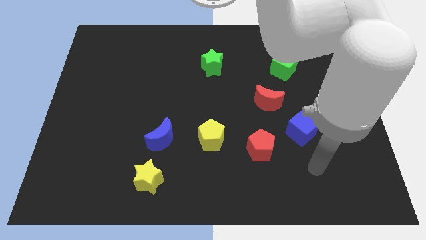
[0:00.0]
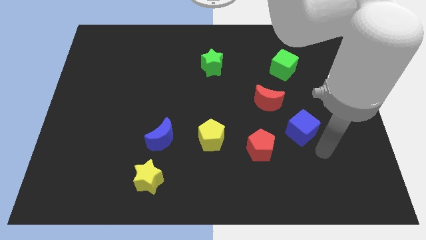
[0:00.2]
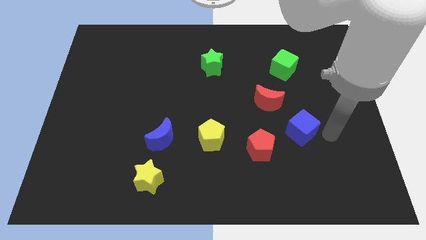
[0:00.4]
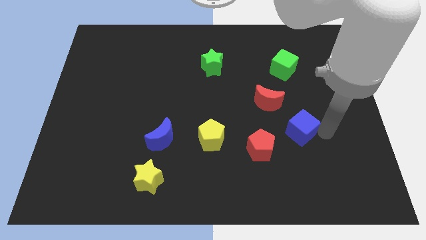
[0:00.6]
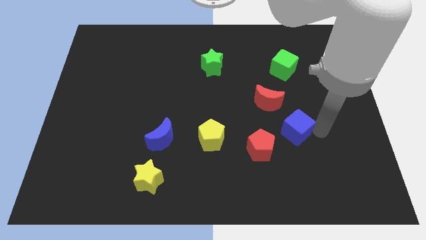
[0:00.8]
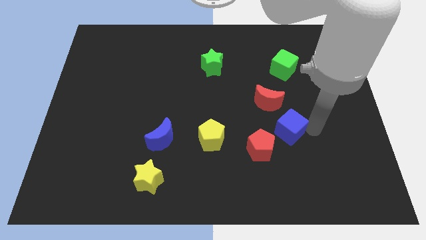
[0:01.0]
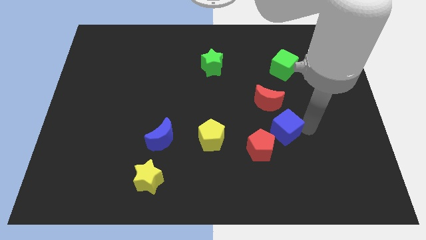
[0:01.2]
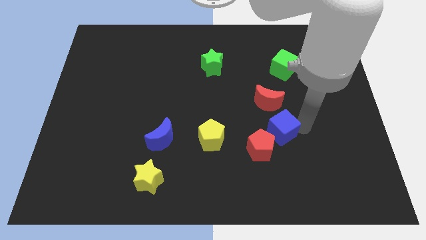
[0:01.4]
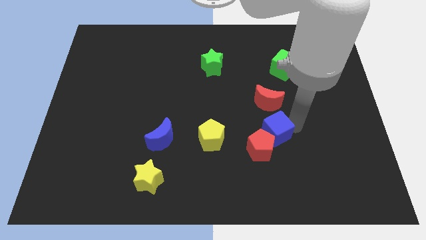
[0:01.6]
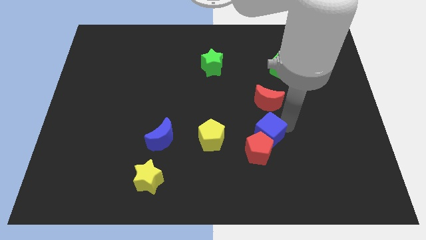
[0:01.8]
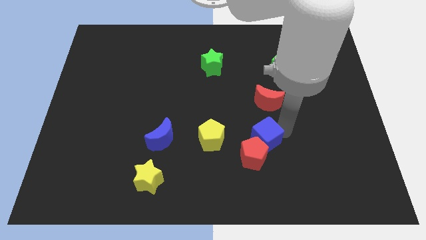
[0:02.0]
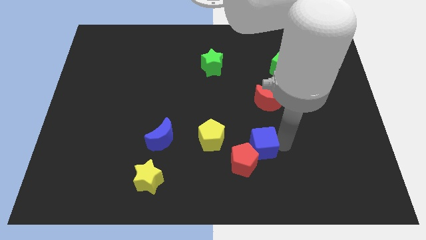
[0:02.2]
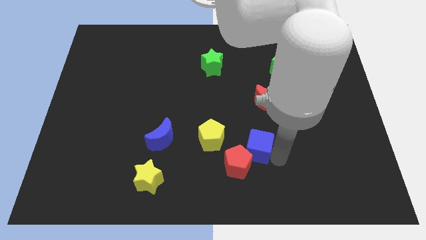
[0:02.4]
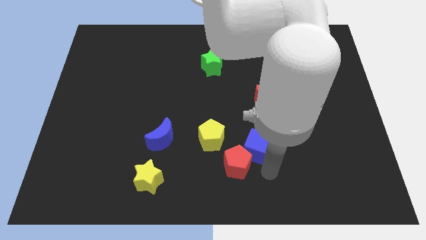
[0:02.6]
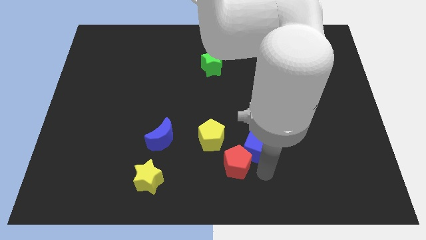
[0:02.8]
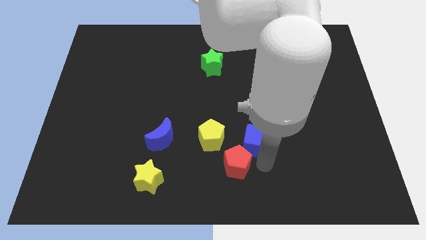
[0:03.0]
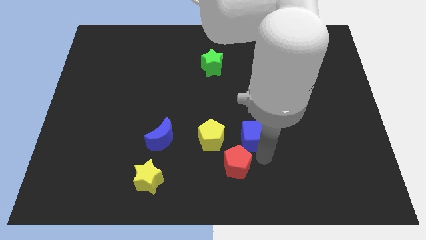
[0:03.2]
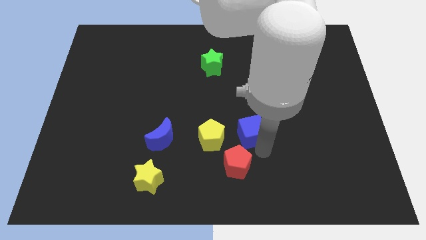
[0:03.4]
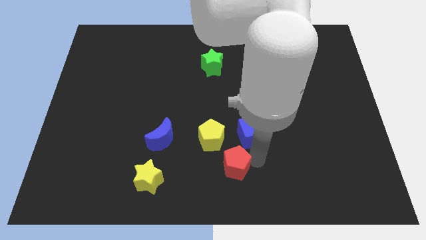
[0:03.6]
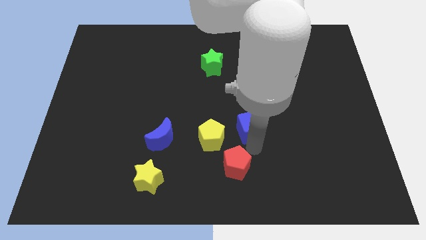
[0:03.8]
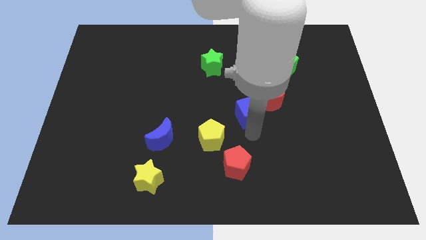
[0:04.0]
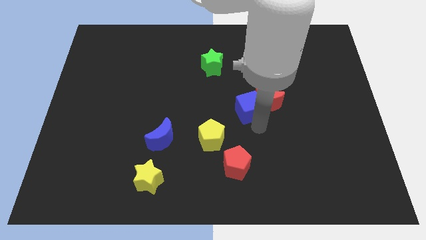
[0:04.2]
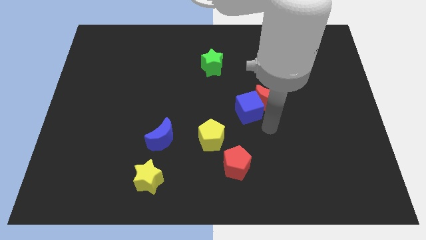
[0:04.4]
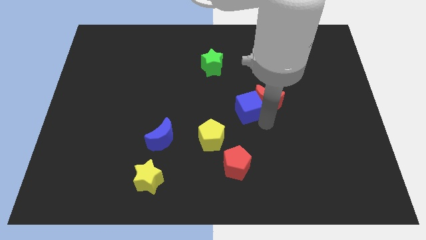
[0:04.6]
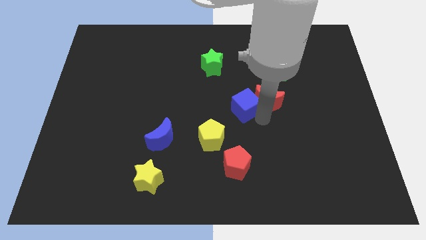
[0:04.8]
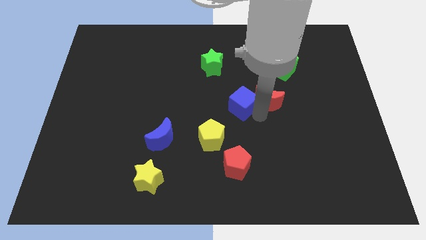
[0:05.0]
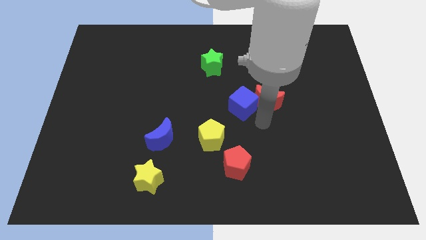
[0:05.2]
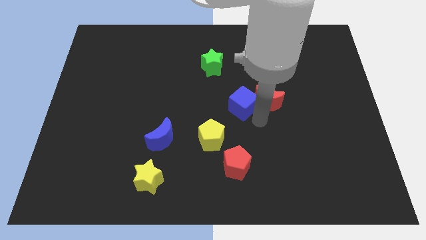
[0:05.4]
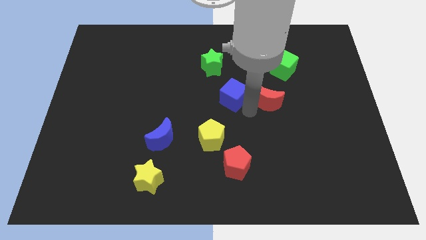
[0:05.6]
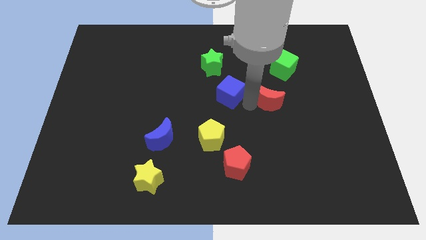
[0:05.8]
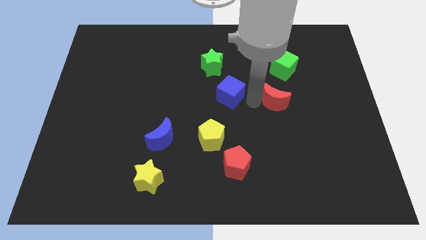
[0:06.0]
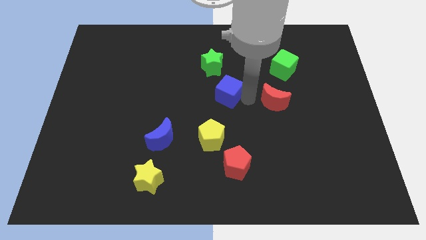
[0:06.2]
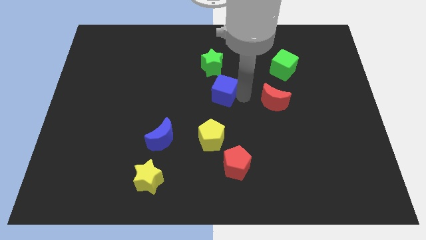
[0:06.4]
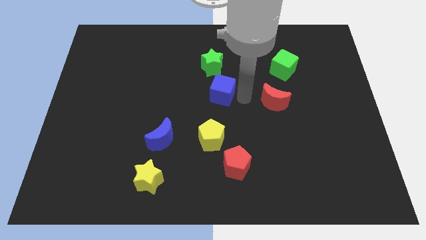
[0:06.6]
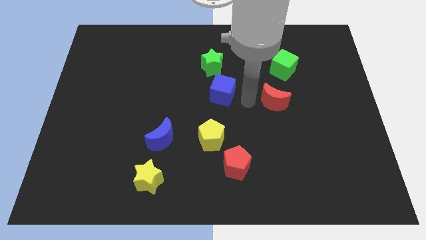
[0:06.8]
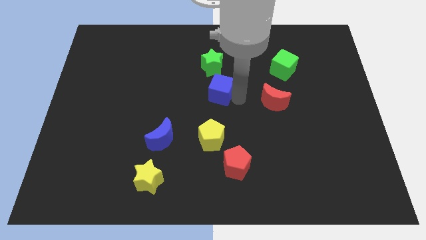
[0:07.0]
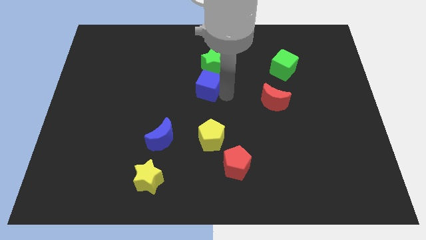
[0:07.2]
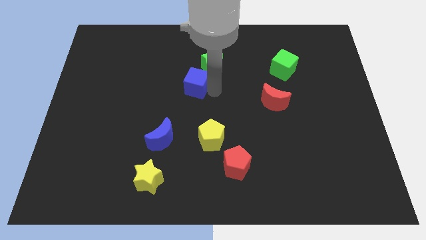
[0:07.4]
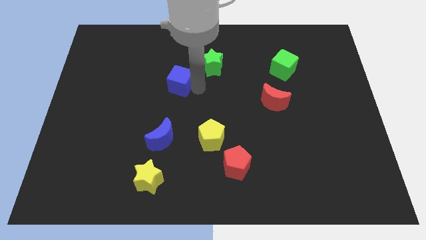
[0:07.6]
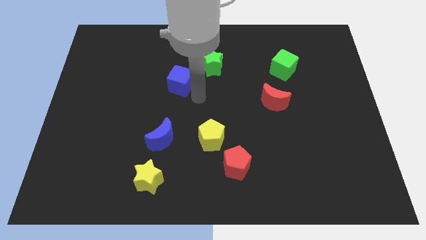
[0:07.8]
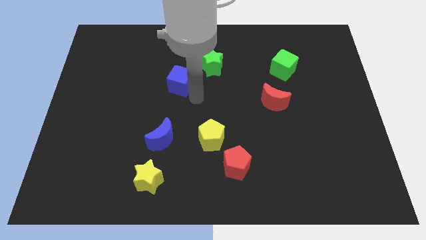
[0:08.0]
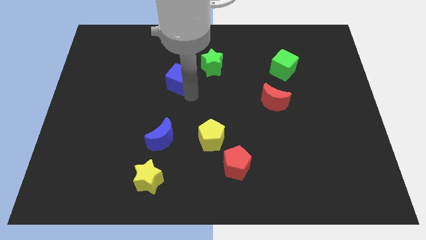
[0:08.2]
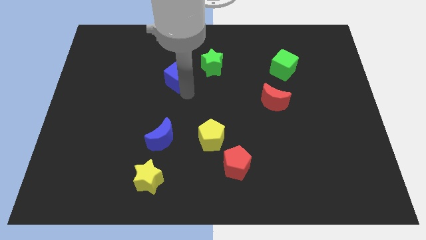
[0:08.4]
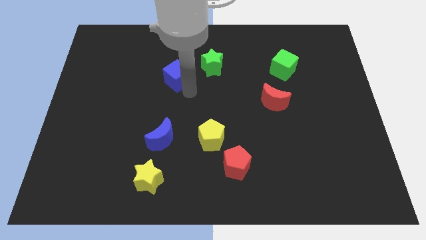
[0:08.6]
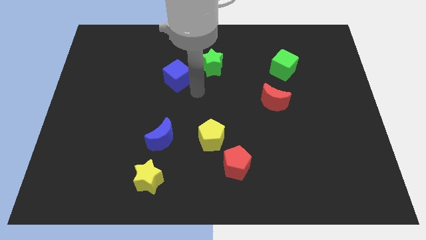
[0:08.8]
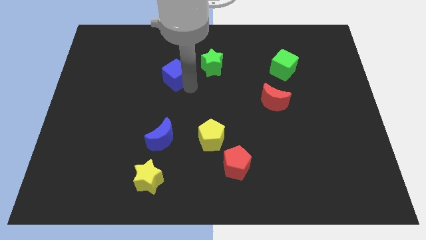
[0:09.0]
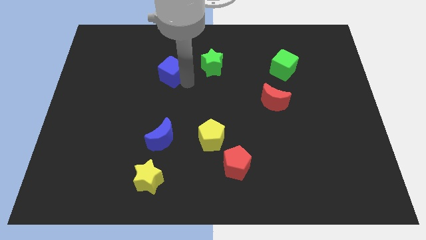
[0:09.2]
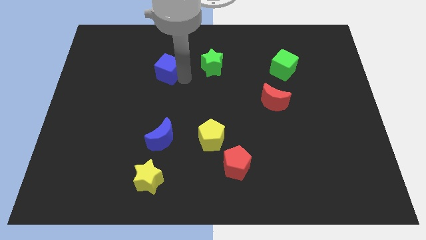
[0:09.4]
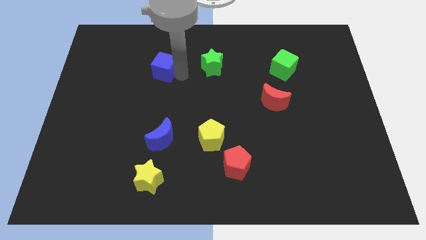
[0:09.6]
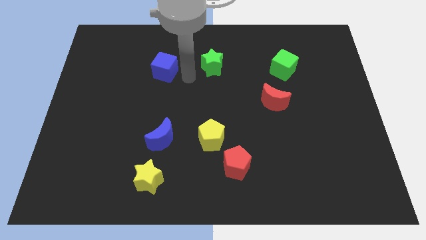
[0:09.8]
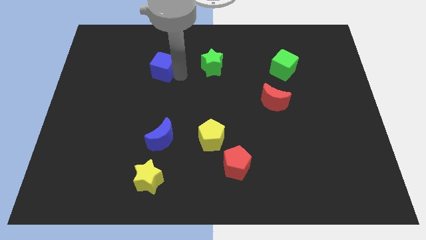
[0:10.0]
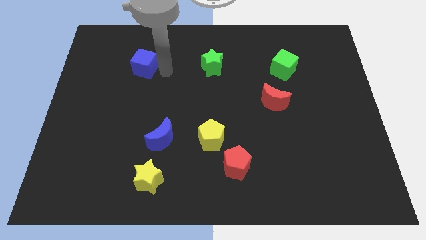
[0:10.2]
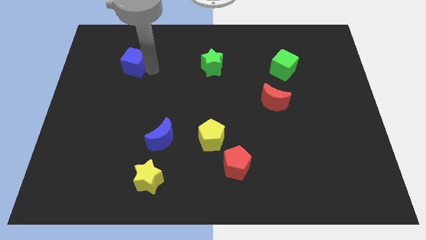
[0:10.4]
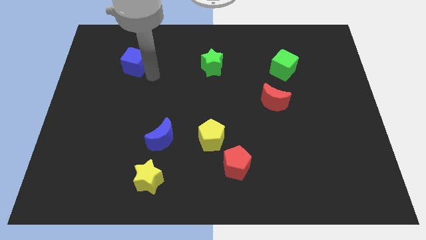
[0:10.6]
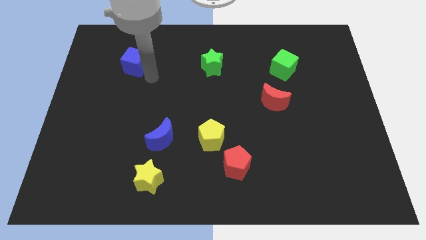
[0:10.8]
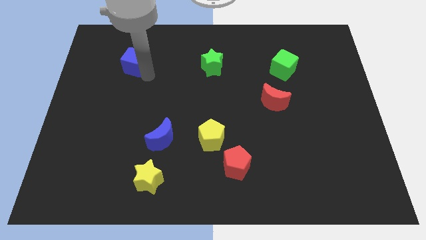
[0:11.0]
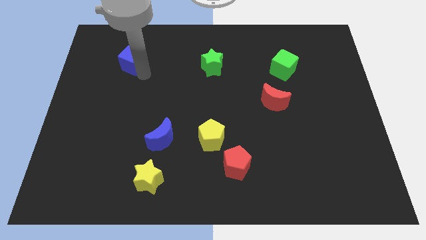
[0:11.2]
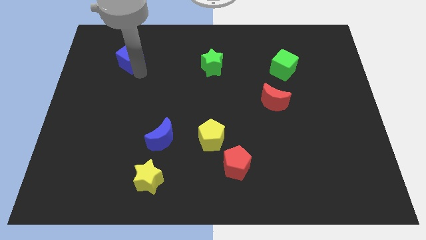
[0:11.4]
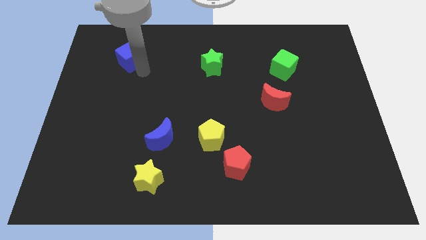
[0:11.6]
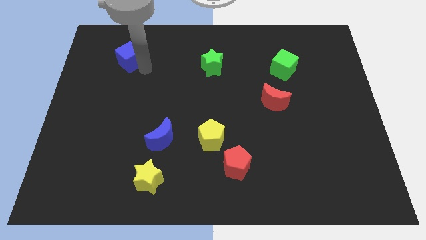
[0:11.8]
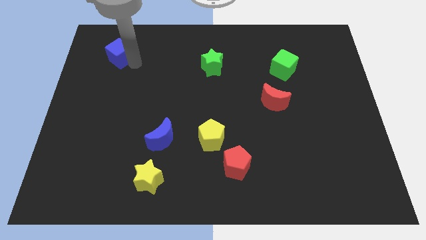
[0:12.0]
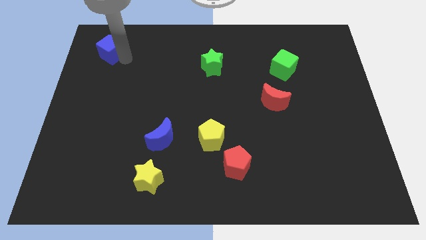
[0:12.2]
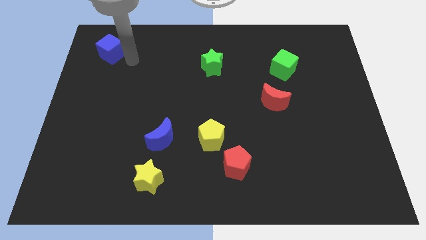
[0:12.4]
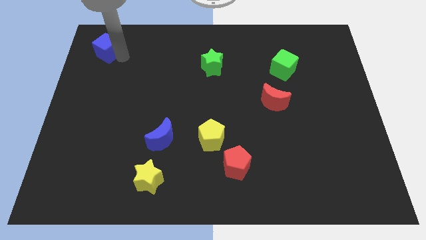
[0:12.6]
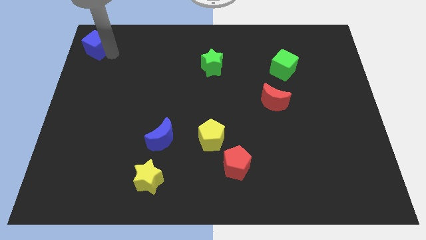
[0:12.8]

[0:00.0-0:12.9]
move the blue cube to the top left of the board
